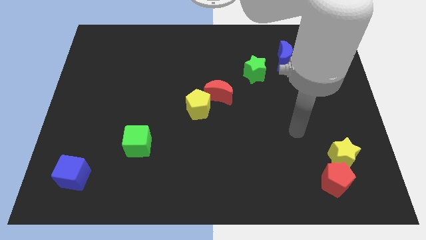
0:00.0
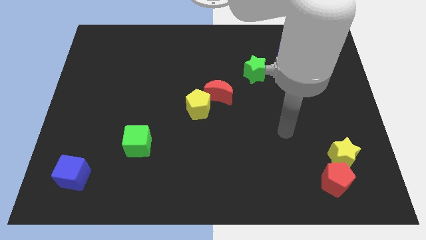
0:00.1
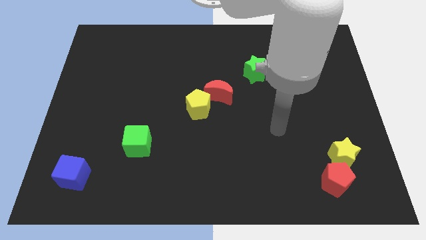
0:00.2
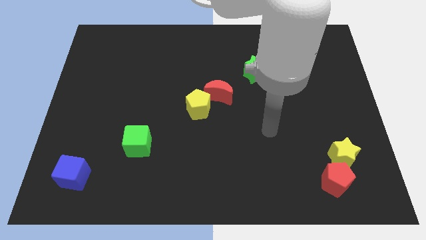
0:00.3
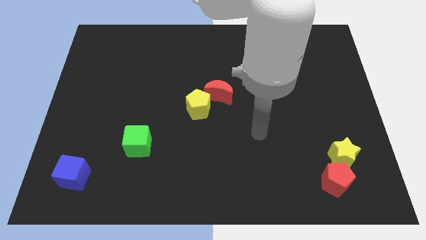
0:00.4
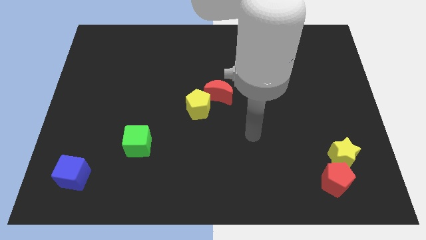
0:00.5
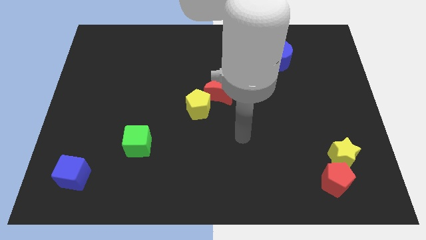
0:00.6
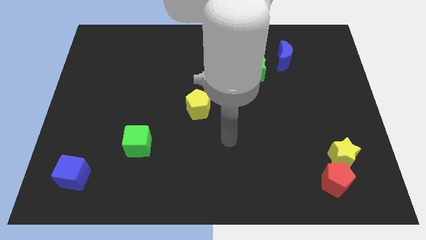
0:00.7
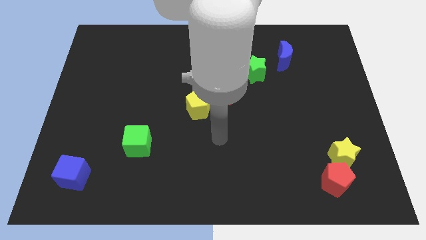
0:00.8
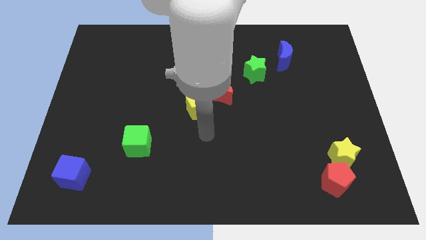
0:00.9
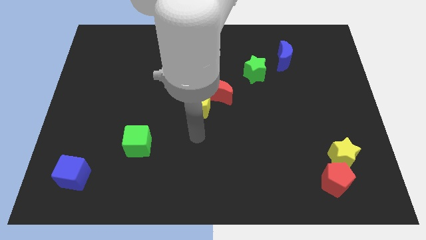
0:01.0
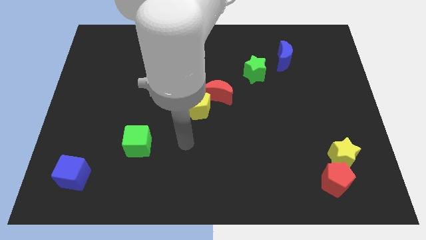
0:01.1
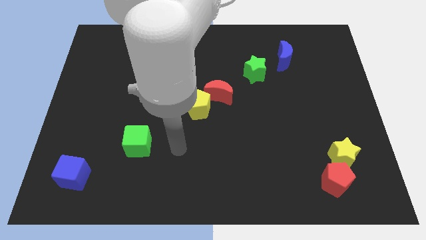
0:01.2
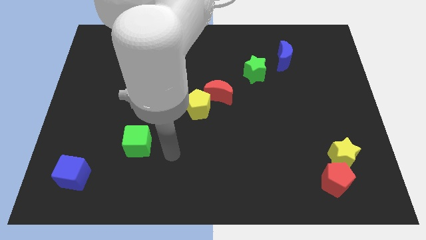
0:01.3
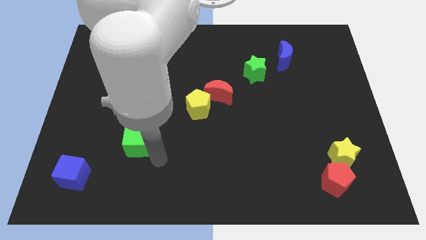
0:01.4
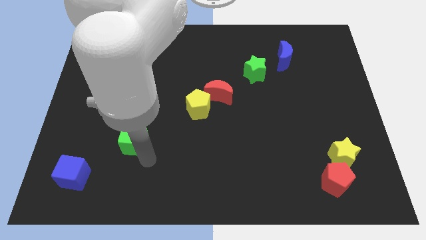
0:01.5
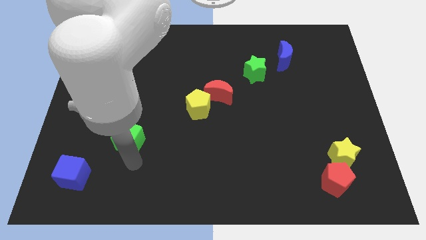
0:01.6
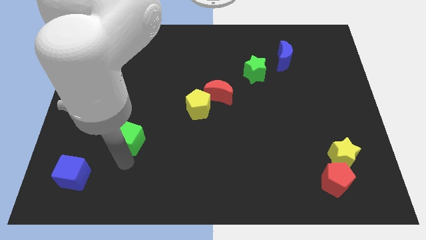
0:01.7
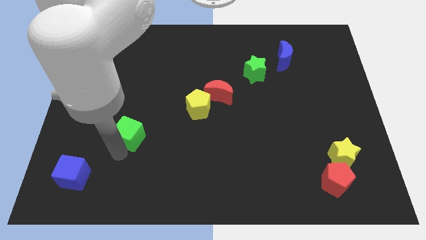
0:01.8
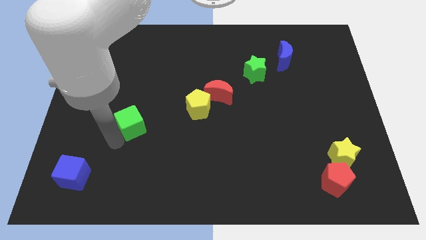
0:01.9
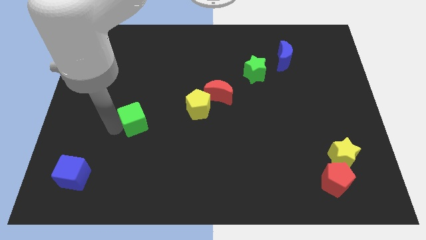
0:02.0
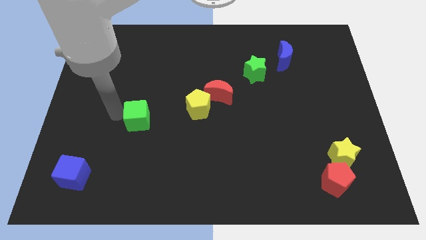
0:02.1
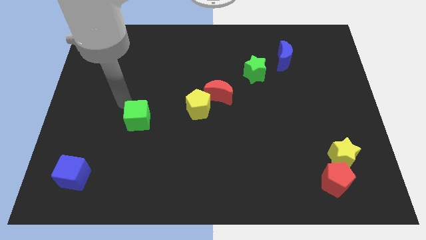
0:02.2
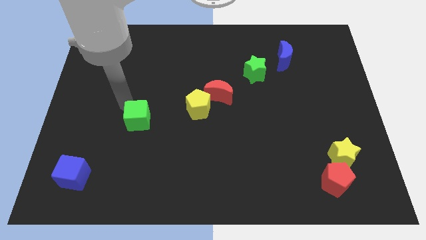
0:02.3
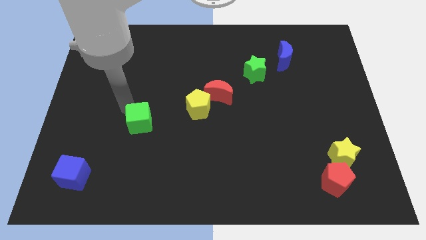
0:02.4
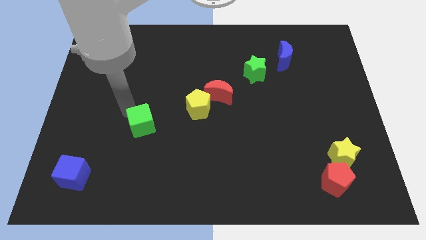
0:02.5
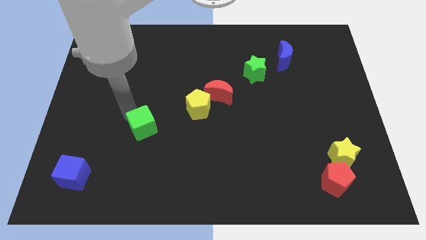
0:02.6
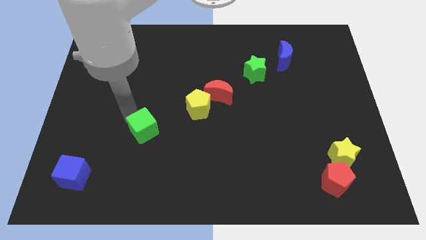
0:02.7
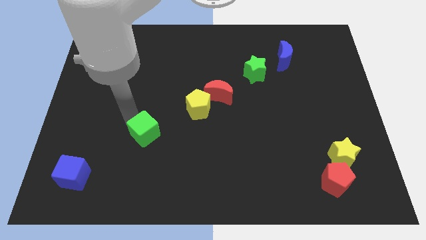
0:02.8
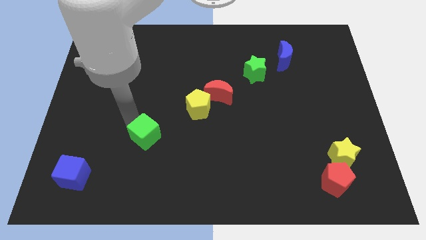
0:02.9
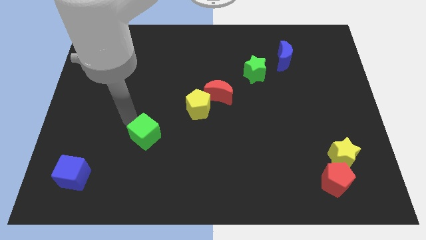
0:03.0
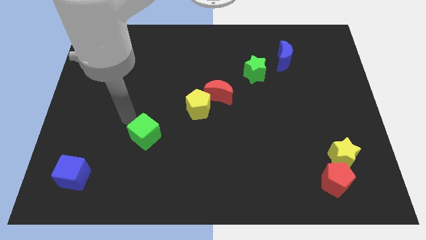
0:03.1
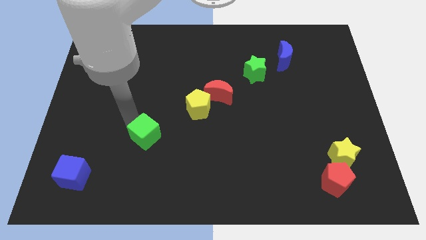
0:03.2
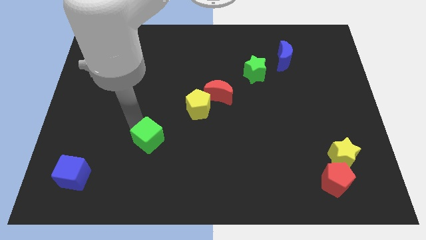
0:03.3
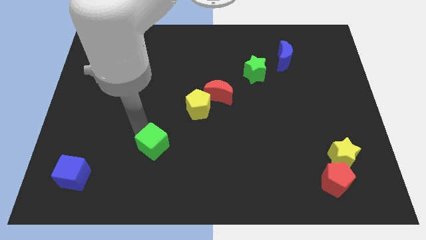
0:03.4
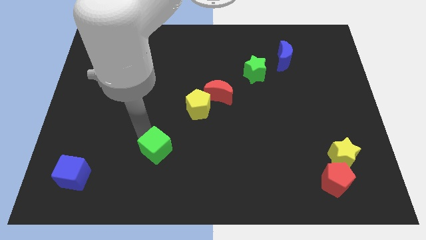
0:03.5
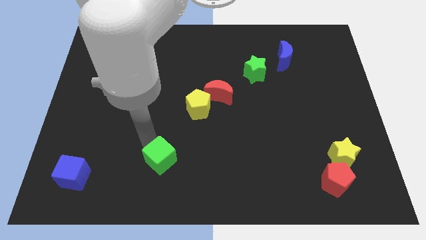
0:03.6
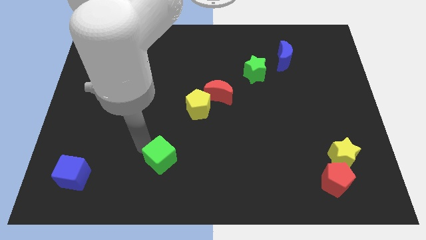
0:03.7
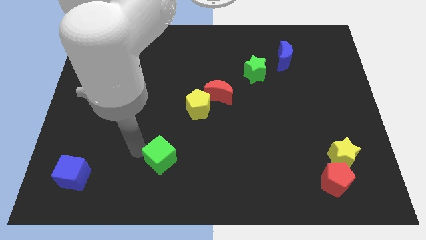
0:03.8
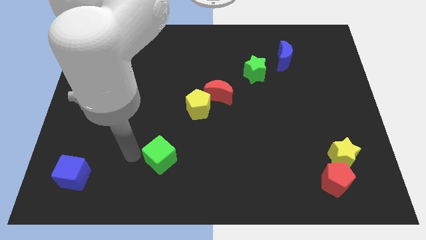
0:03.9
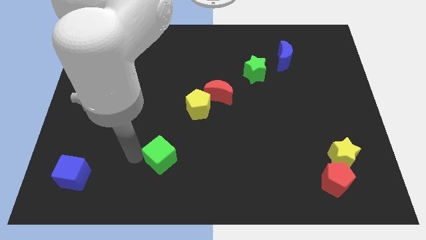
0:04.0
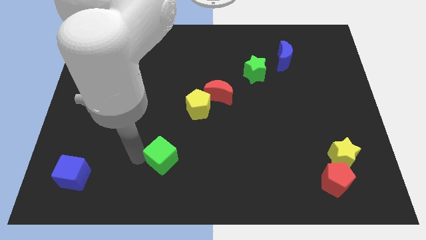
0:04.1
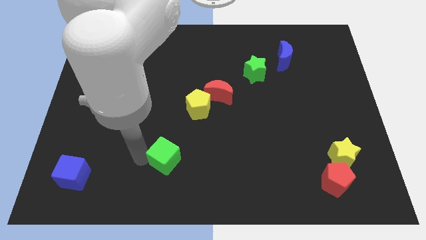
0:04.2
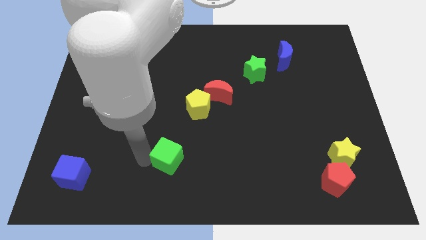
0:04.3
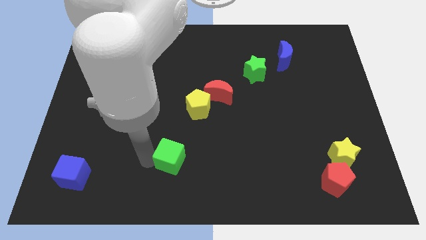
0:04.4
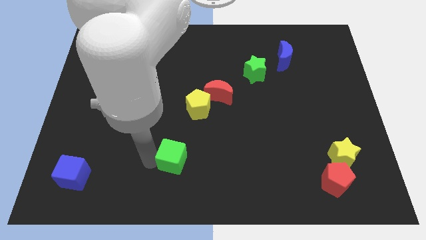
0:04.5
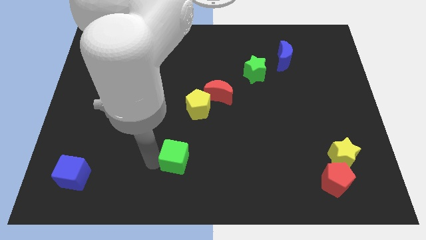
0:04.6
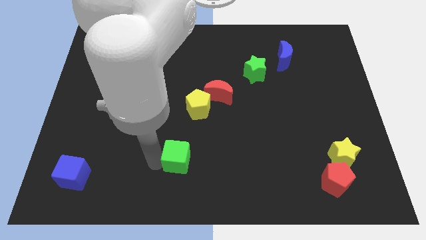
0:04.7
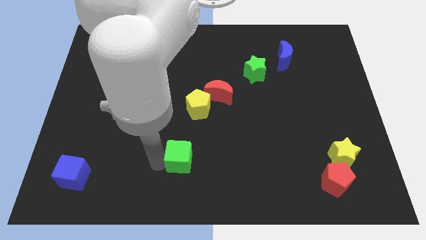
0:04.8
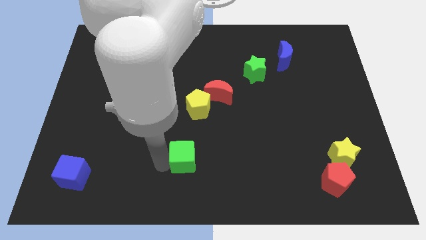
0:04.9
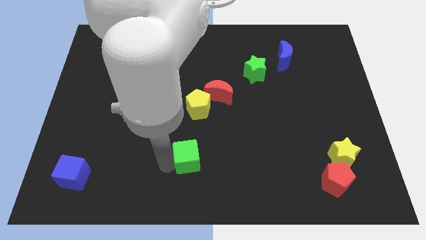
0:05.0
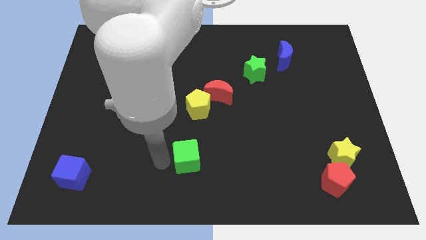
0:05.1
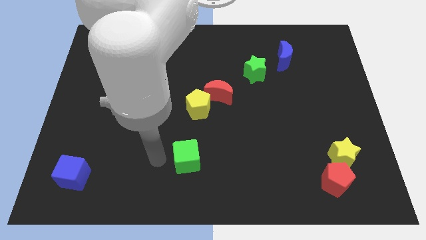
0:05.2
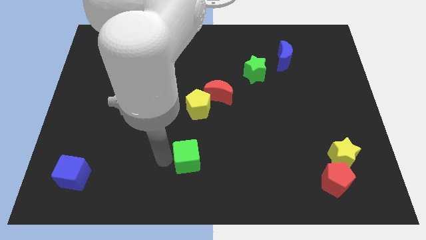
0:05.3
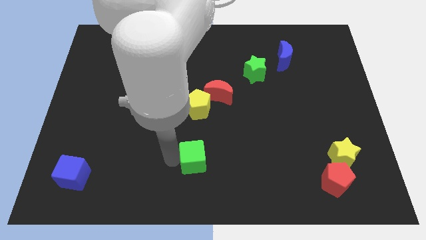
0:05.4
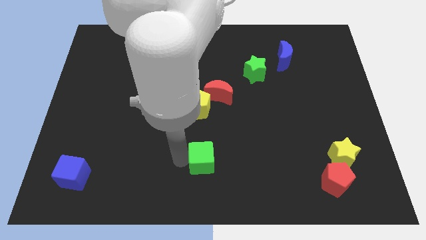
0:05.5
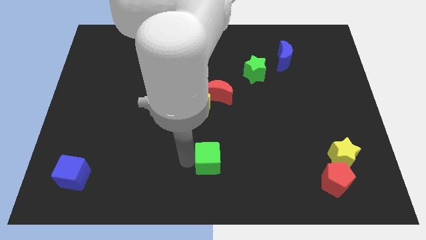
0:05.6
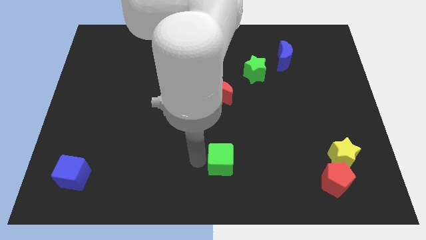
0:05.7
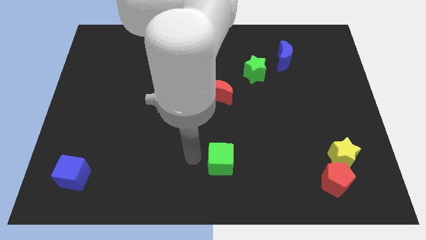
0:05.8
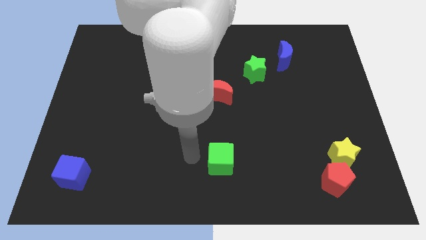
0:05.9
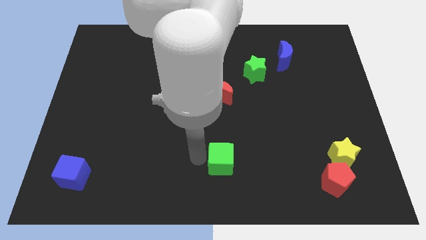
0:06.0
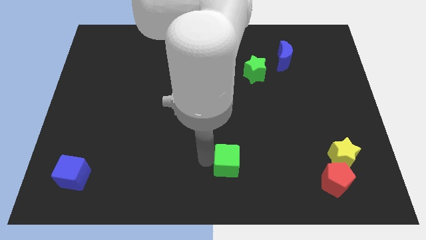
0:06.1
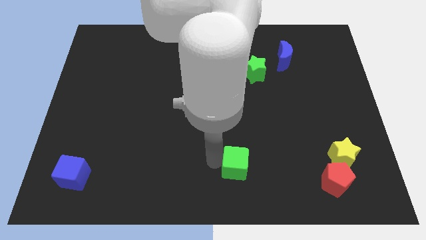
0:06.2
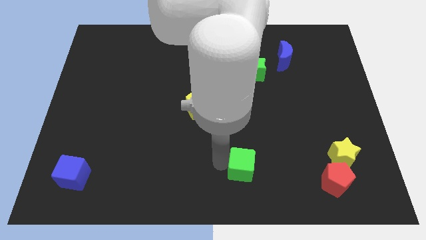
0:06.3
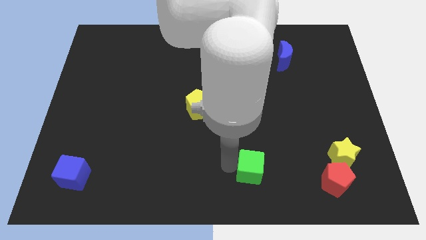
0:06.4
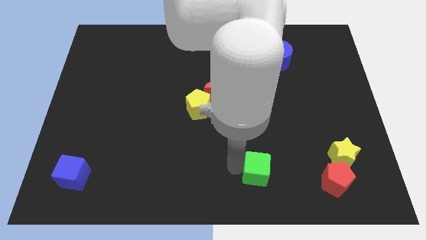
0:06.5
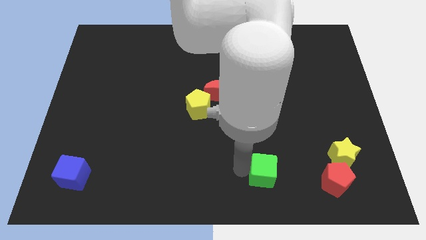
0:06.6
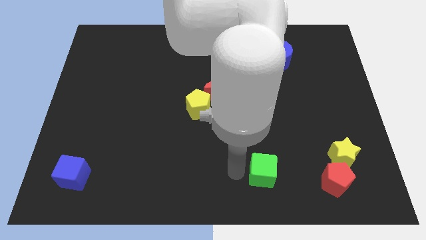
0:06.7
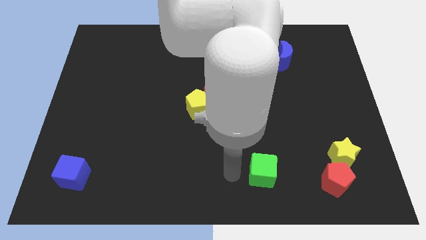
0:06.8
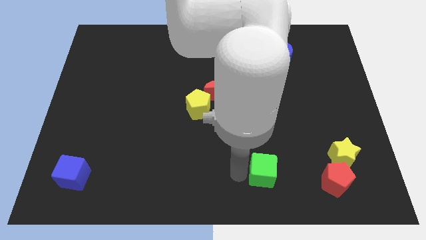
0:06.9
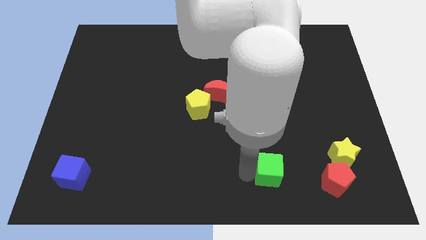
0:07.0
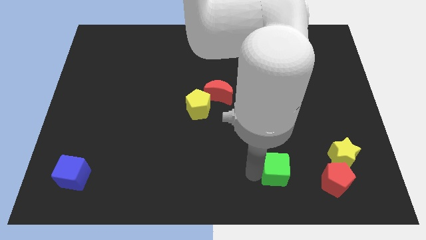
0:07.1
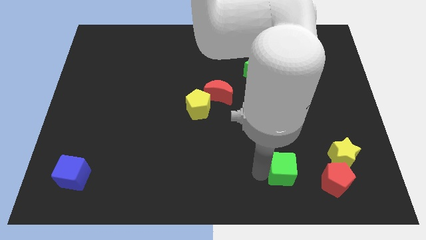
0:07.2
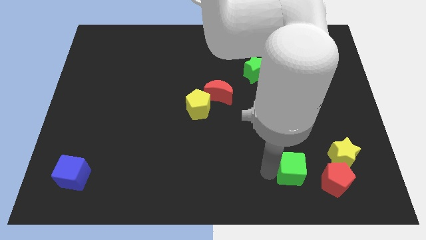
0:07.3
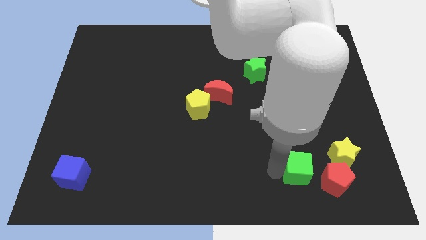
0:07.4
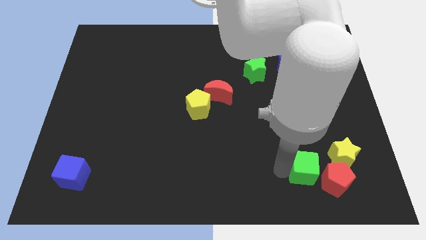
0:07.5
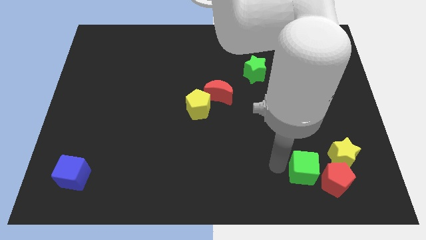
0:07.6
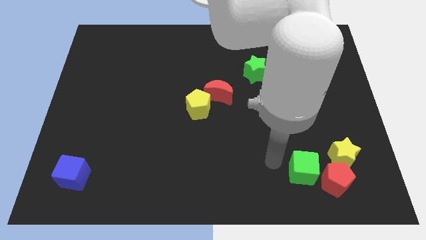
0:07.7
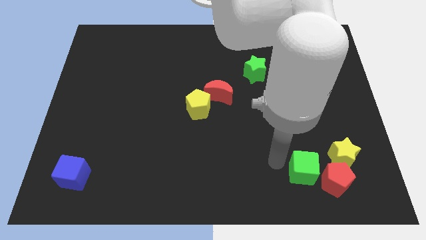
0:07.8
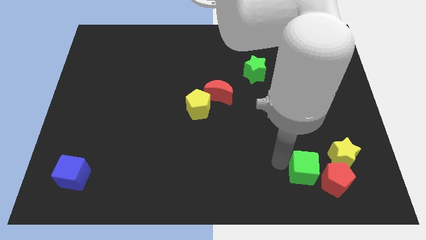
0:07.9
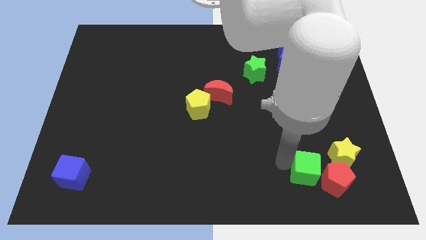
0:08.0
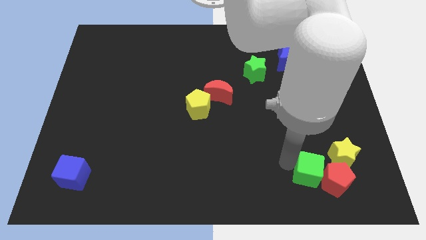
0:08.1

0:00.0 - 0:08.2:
slide the green cube close to the red pentagon
